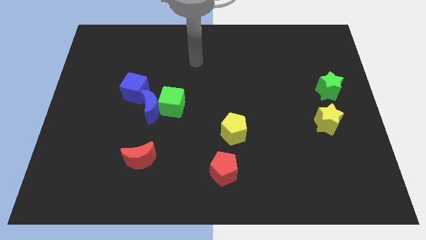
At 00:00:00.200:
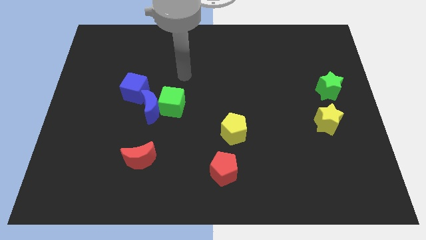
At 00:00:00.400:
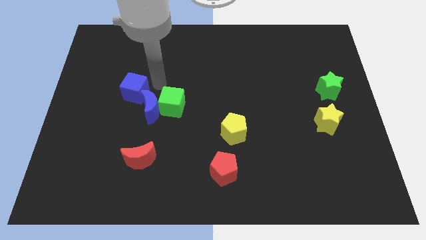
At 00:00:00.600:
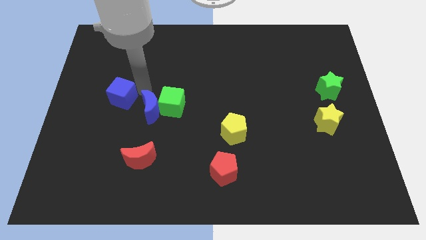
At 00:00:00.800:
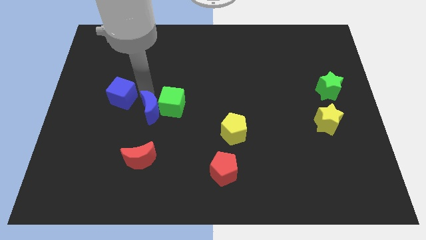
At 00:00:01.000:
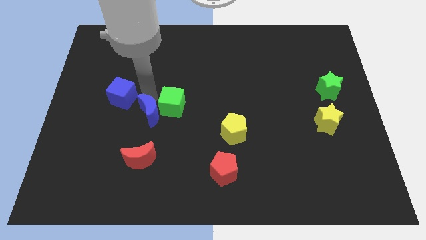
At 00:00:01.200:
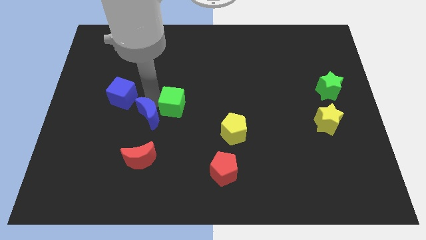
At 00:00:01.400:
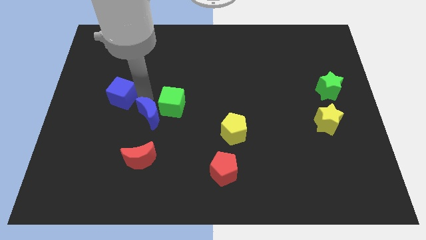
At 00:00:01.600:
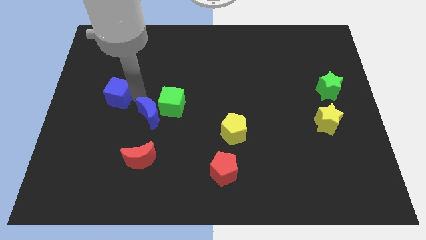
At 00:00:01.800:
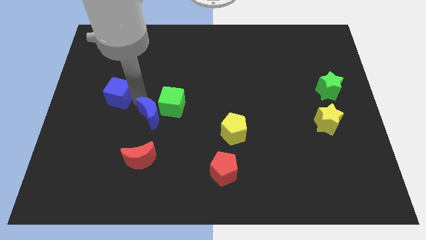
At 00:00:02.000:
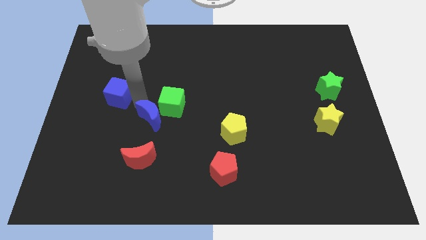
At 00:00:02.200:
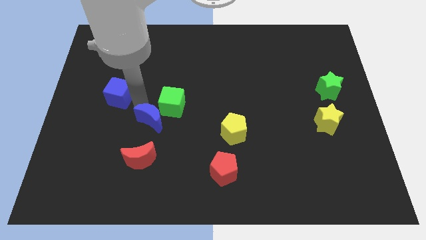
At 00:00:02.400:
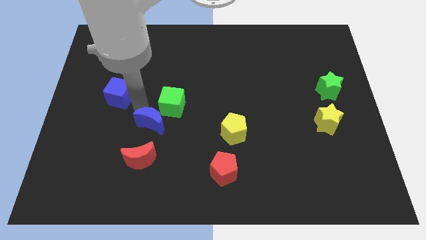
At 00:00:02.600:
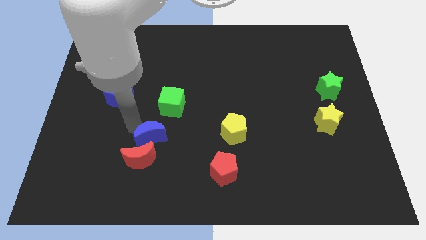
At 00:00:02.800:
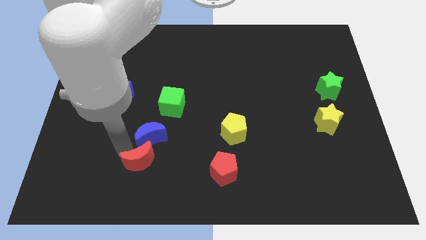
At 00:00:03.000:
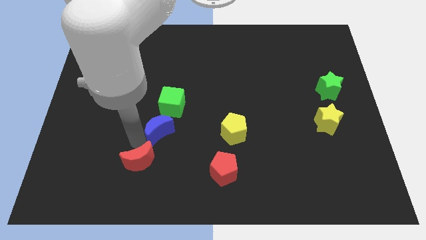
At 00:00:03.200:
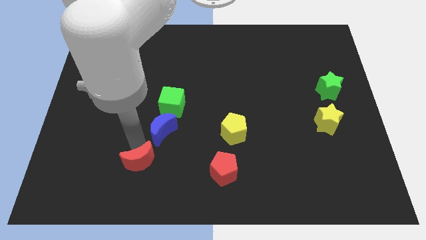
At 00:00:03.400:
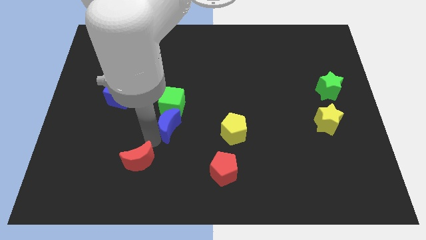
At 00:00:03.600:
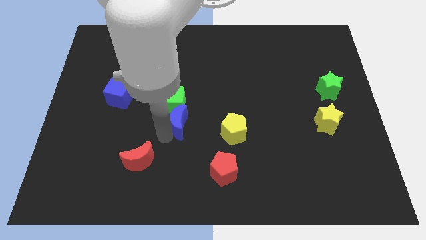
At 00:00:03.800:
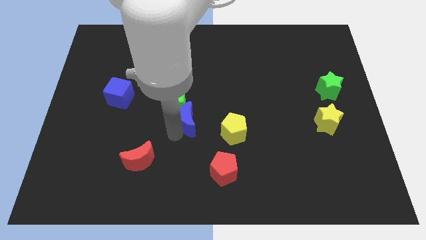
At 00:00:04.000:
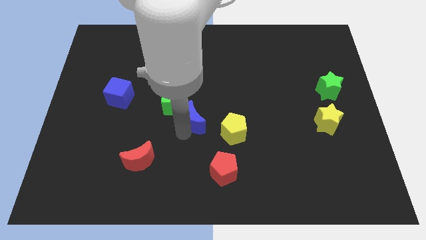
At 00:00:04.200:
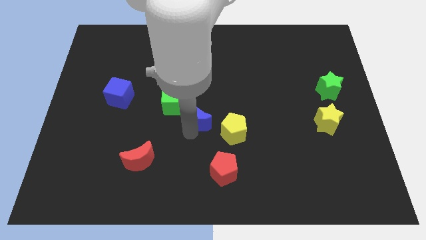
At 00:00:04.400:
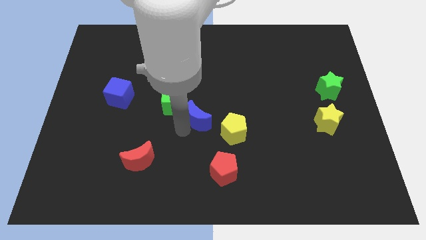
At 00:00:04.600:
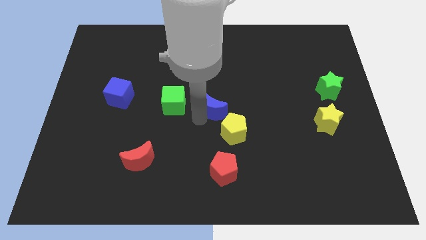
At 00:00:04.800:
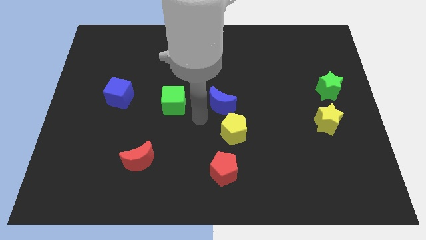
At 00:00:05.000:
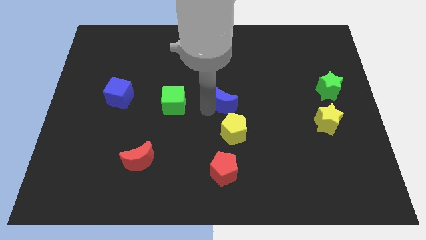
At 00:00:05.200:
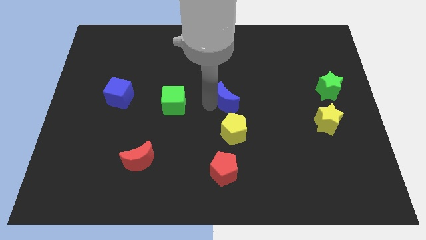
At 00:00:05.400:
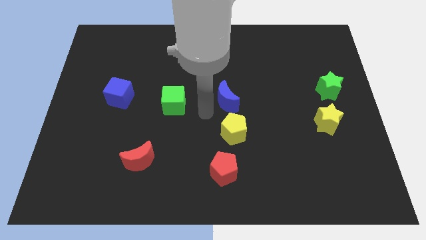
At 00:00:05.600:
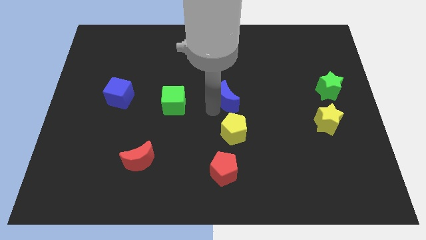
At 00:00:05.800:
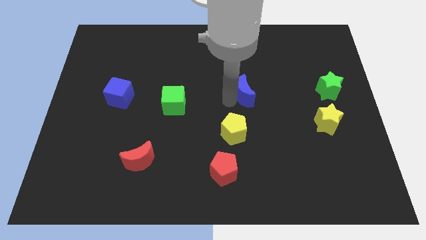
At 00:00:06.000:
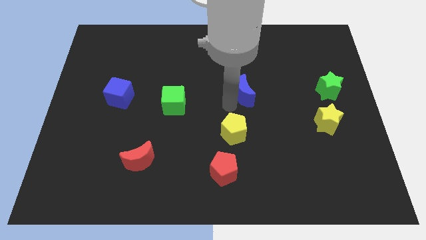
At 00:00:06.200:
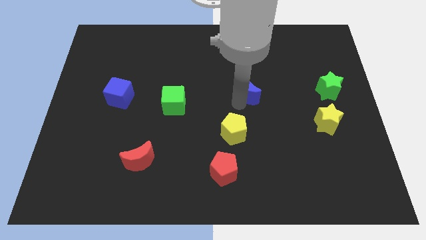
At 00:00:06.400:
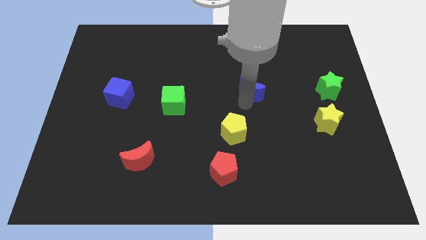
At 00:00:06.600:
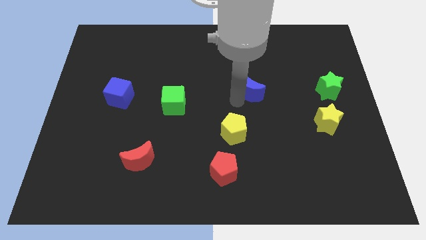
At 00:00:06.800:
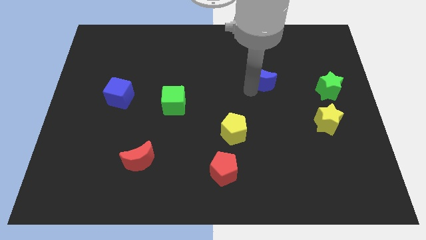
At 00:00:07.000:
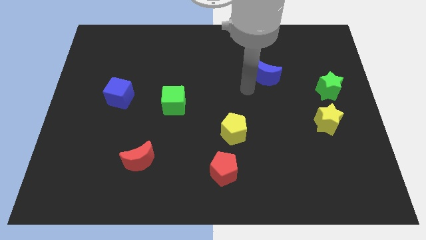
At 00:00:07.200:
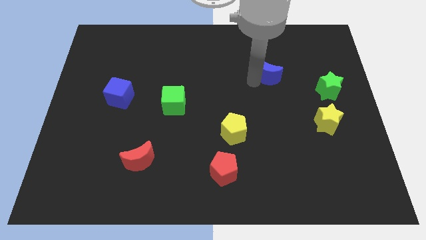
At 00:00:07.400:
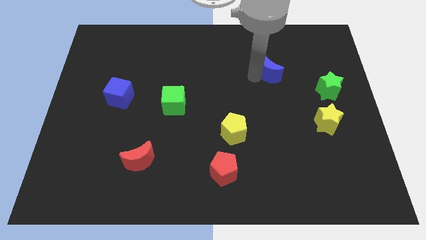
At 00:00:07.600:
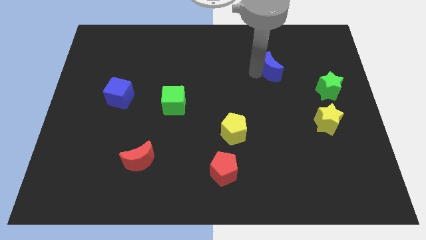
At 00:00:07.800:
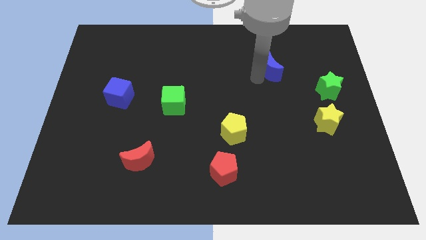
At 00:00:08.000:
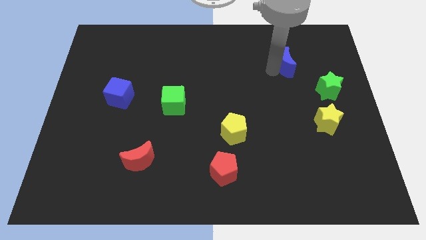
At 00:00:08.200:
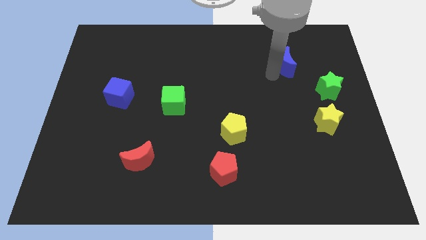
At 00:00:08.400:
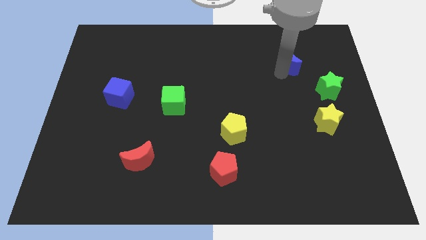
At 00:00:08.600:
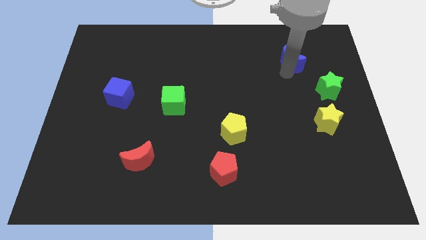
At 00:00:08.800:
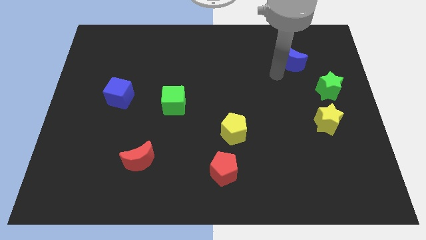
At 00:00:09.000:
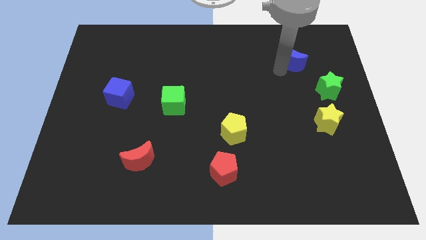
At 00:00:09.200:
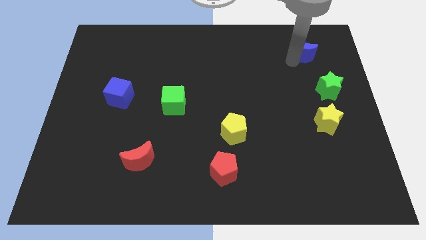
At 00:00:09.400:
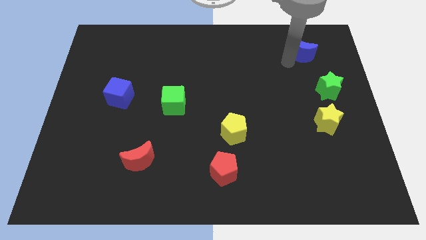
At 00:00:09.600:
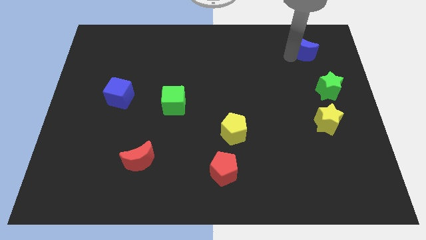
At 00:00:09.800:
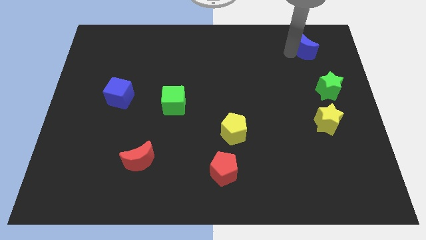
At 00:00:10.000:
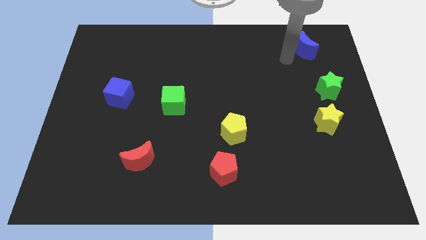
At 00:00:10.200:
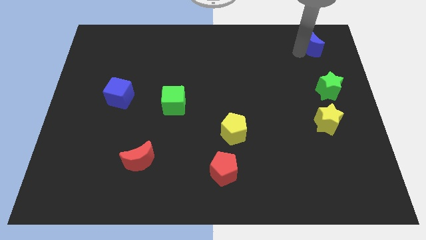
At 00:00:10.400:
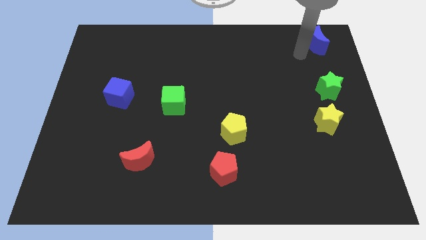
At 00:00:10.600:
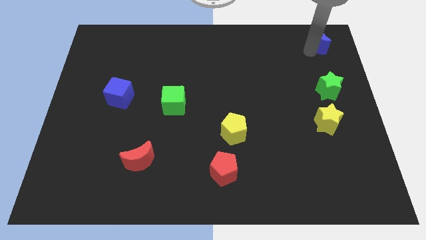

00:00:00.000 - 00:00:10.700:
push the blue moon to the top right of the board

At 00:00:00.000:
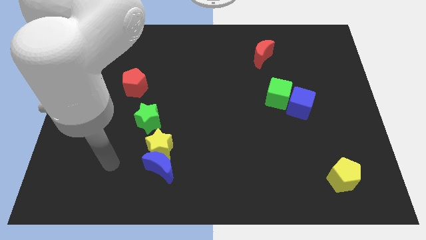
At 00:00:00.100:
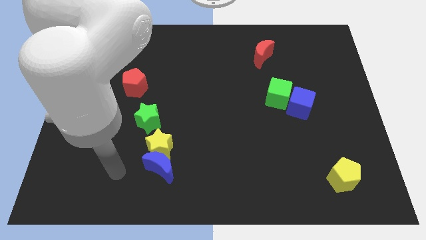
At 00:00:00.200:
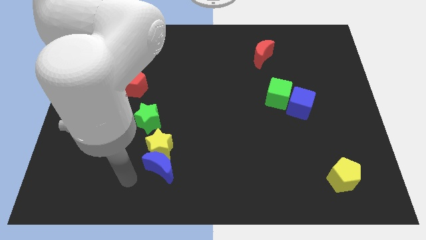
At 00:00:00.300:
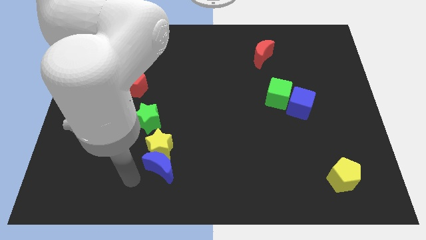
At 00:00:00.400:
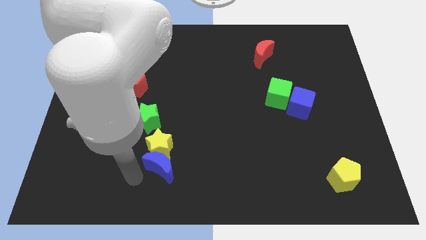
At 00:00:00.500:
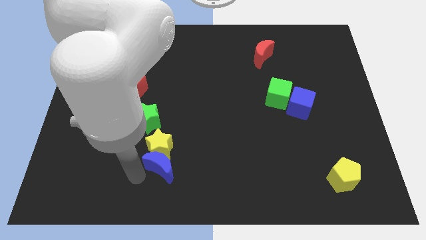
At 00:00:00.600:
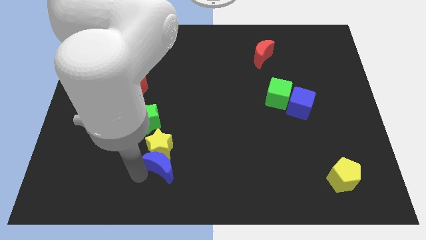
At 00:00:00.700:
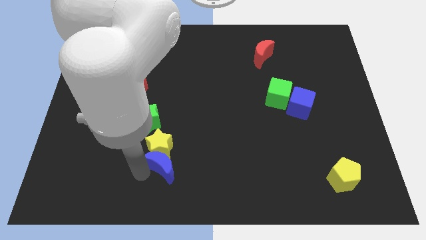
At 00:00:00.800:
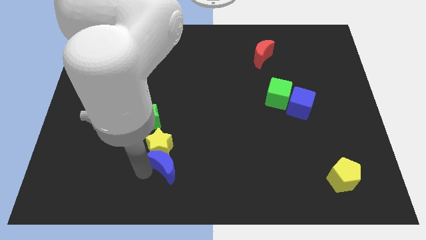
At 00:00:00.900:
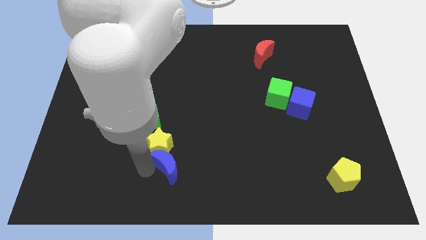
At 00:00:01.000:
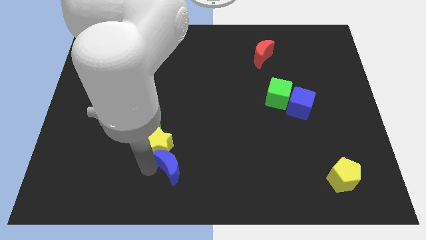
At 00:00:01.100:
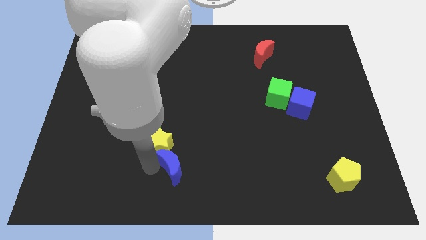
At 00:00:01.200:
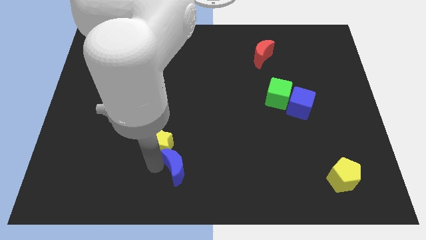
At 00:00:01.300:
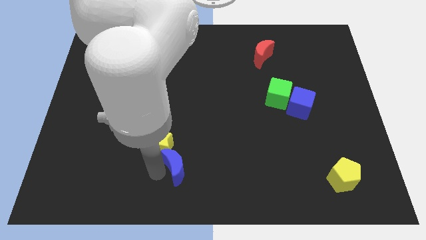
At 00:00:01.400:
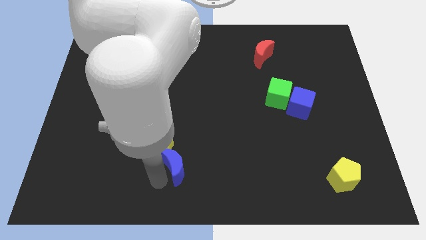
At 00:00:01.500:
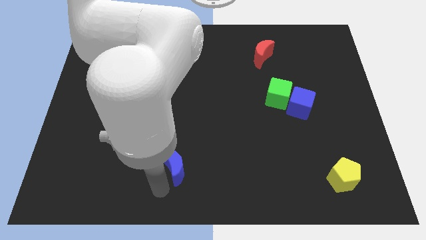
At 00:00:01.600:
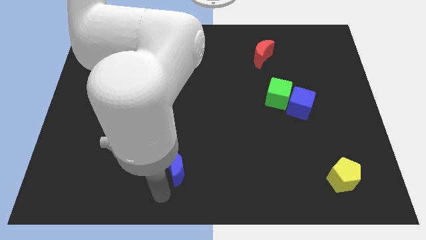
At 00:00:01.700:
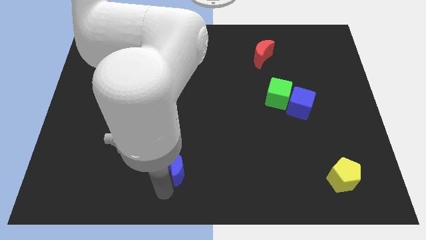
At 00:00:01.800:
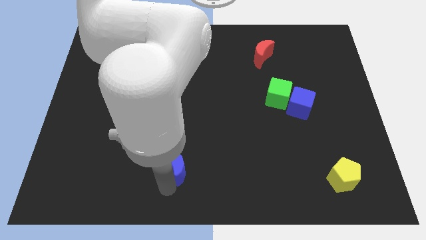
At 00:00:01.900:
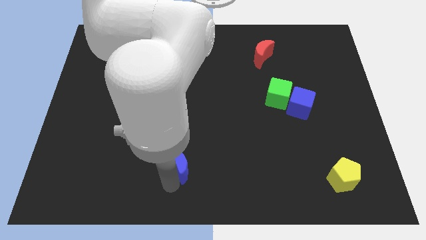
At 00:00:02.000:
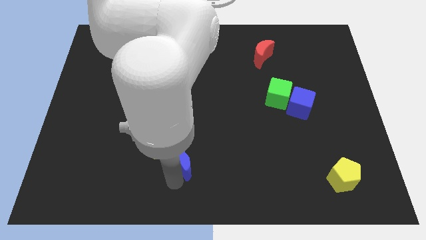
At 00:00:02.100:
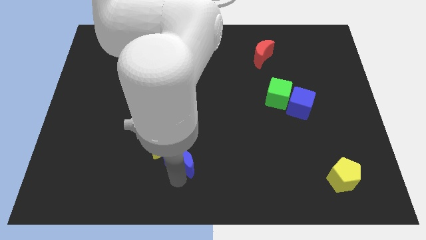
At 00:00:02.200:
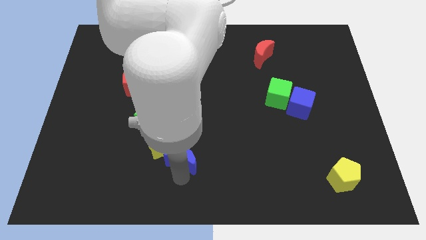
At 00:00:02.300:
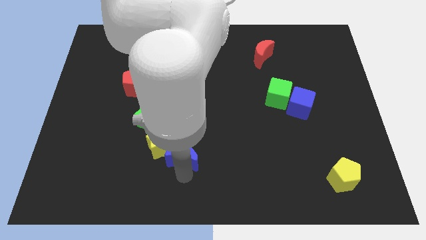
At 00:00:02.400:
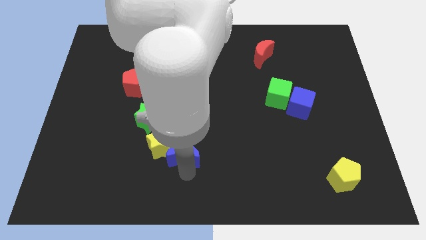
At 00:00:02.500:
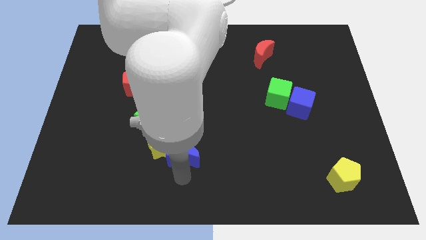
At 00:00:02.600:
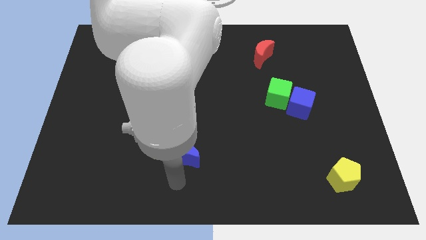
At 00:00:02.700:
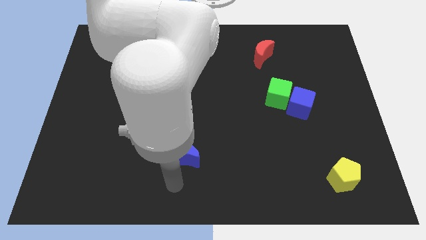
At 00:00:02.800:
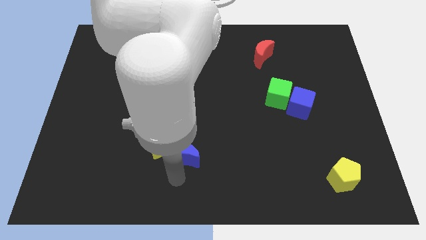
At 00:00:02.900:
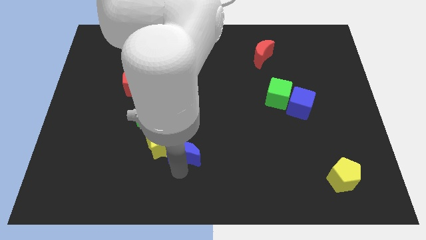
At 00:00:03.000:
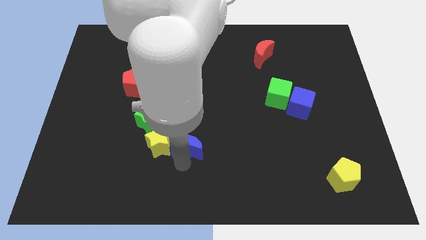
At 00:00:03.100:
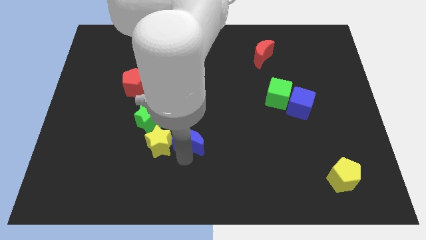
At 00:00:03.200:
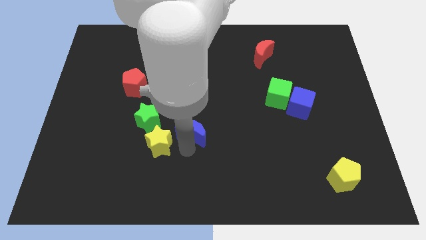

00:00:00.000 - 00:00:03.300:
put the blue moon to the center
